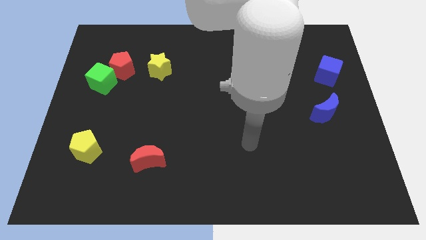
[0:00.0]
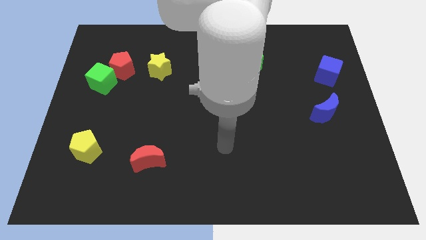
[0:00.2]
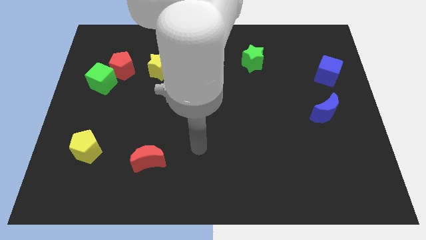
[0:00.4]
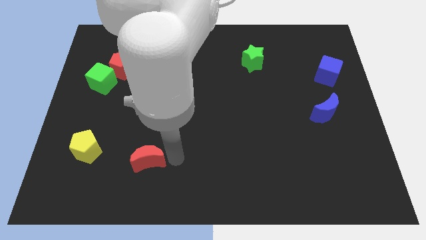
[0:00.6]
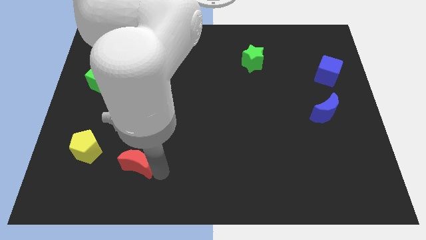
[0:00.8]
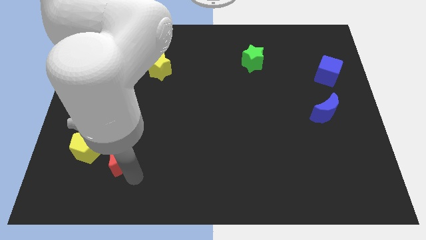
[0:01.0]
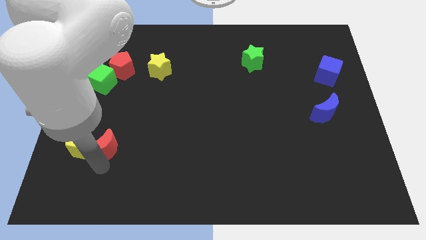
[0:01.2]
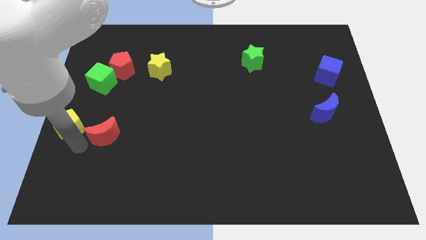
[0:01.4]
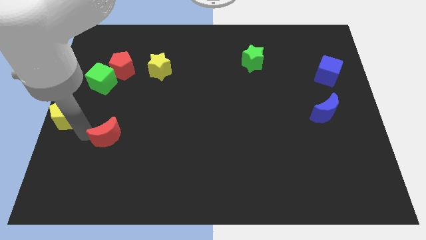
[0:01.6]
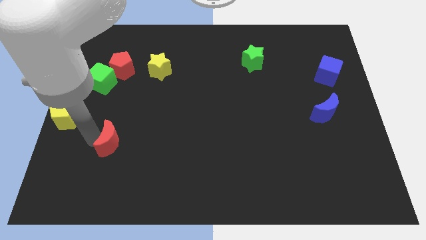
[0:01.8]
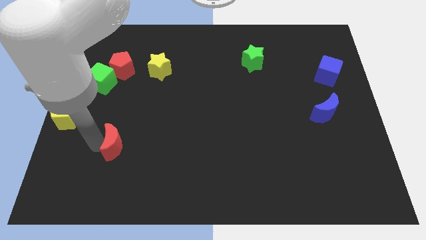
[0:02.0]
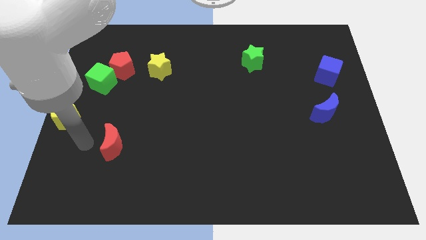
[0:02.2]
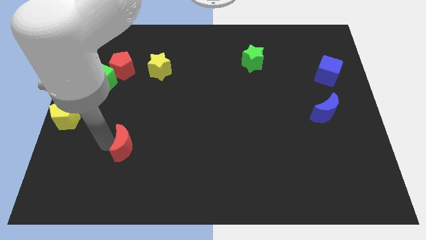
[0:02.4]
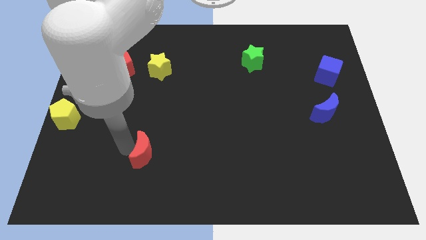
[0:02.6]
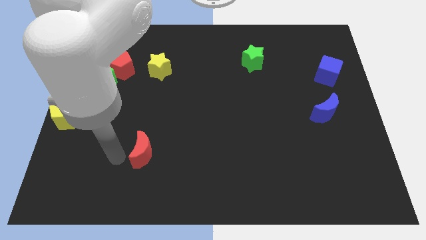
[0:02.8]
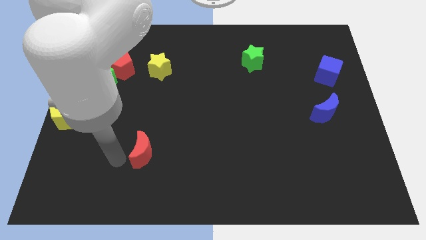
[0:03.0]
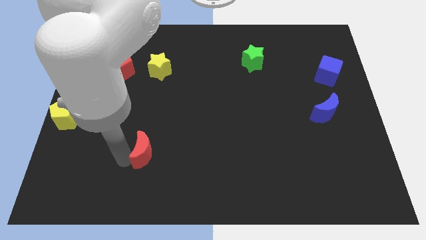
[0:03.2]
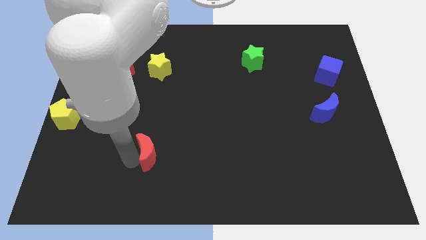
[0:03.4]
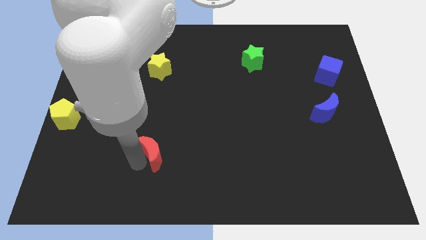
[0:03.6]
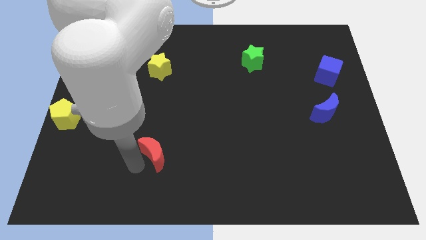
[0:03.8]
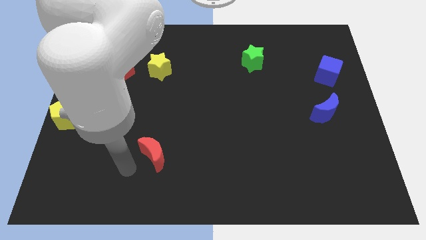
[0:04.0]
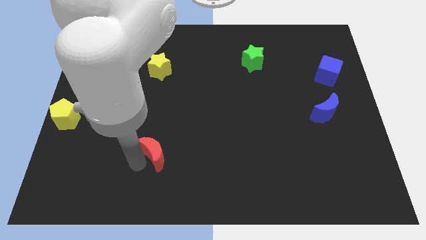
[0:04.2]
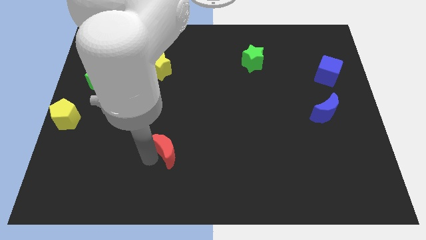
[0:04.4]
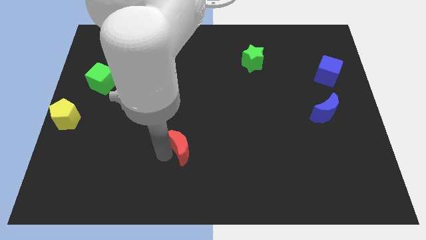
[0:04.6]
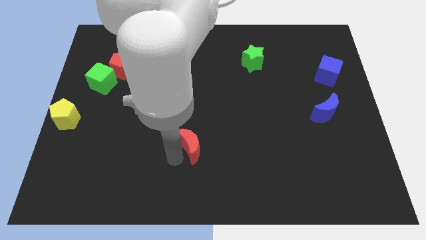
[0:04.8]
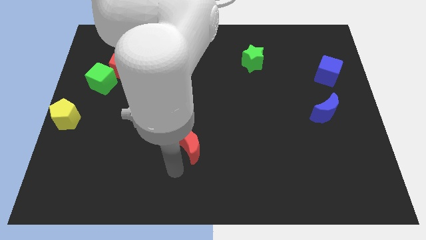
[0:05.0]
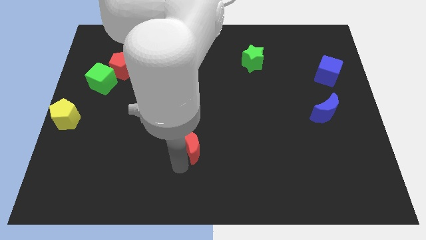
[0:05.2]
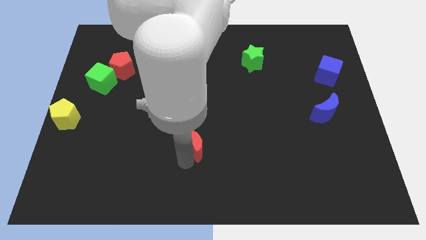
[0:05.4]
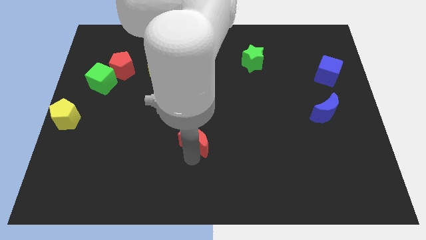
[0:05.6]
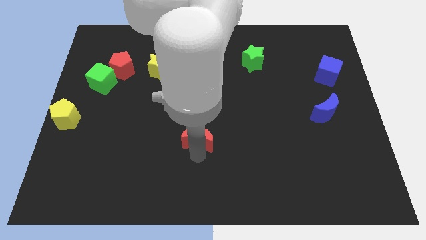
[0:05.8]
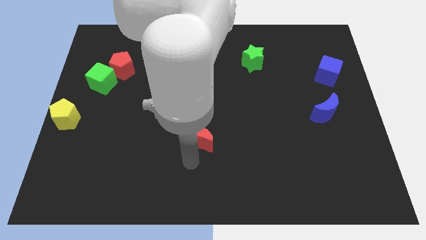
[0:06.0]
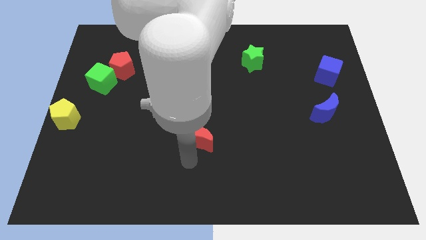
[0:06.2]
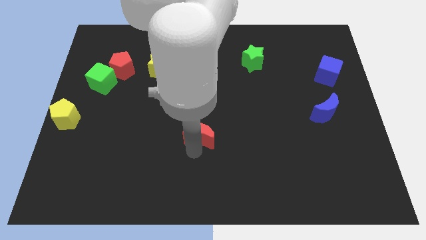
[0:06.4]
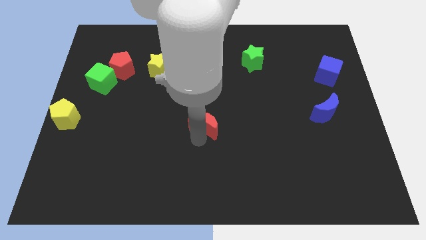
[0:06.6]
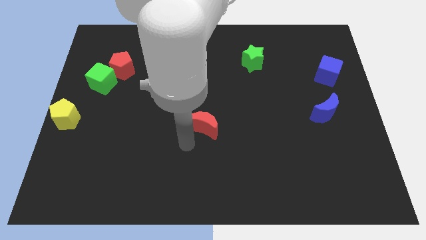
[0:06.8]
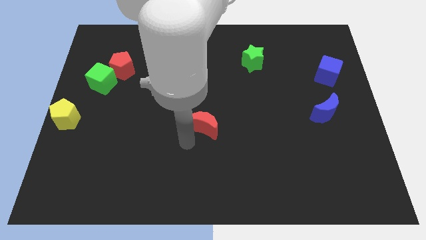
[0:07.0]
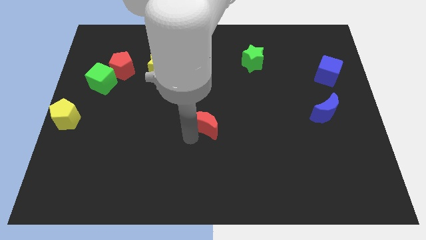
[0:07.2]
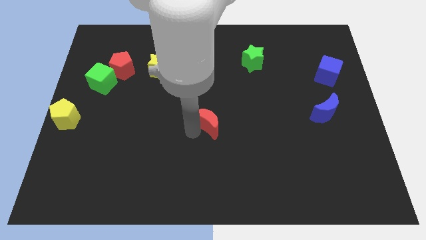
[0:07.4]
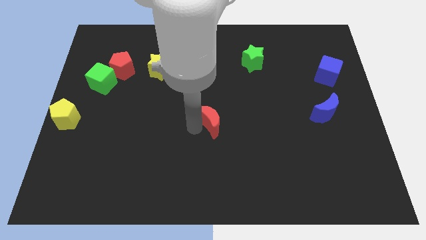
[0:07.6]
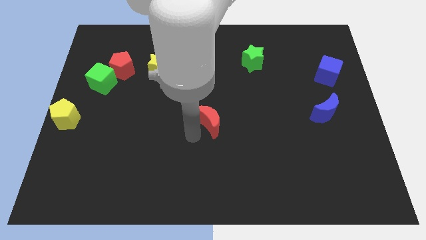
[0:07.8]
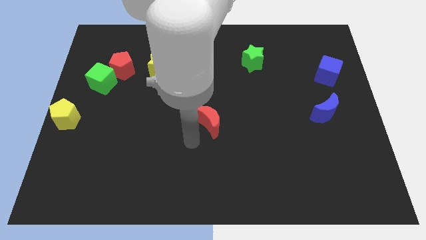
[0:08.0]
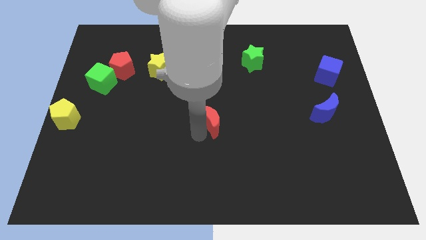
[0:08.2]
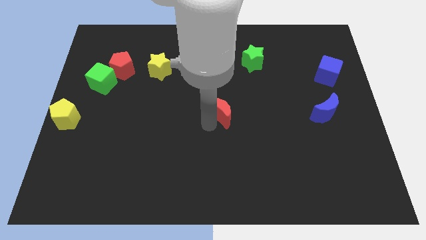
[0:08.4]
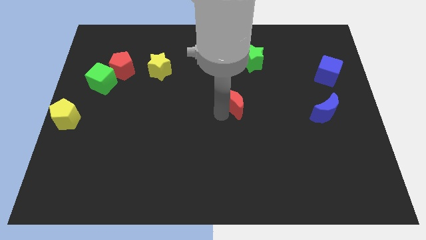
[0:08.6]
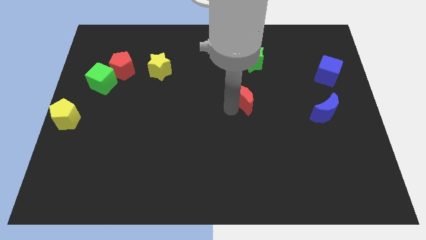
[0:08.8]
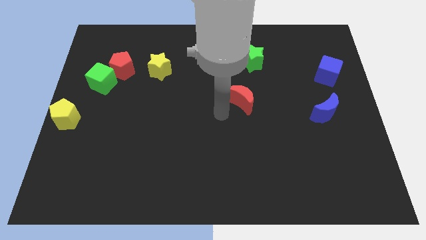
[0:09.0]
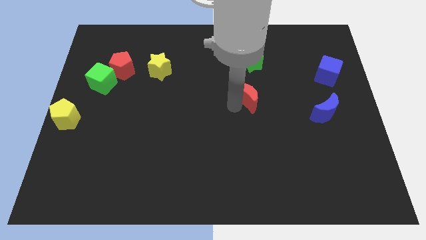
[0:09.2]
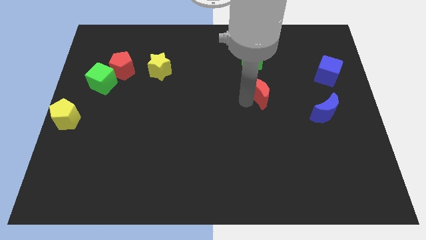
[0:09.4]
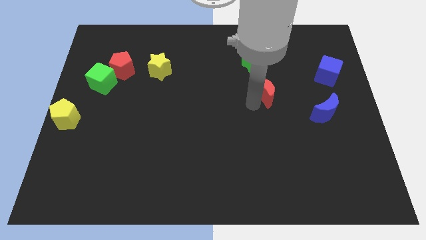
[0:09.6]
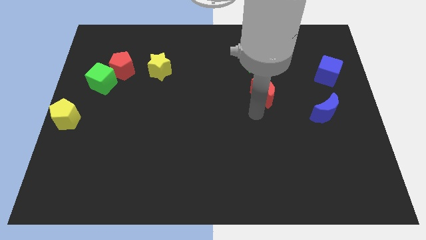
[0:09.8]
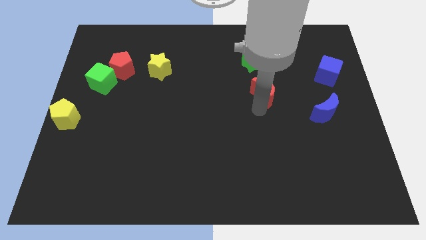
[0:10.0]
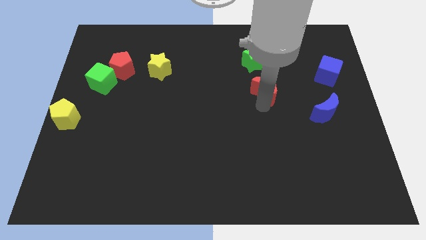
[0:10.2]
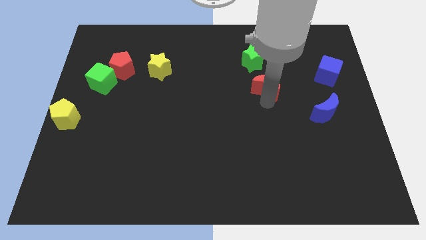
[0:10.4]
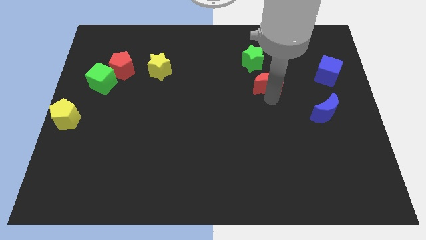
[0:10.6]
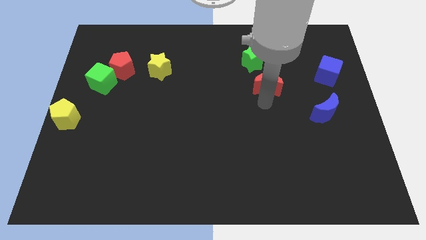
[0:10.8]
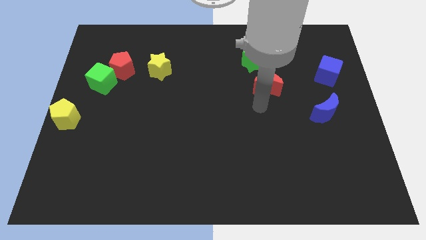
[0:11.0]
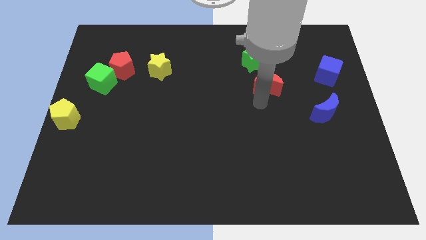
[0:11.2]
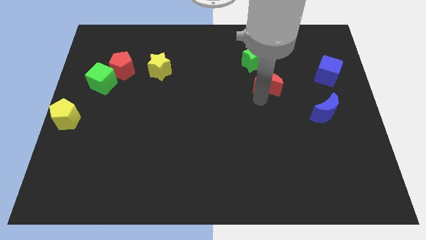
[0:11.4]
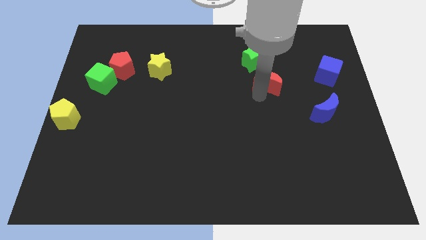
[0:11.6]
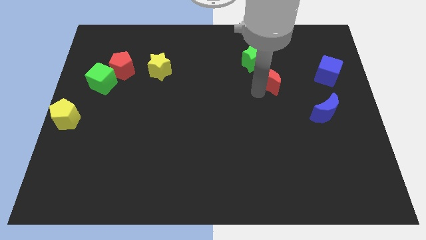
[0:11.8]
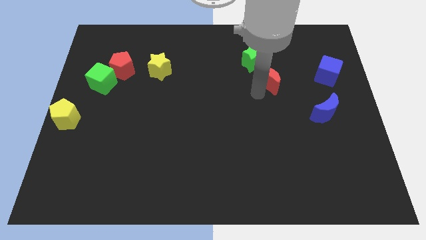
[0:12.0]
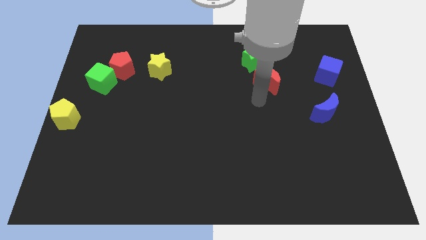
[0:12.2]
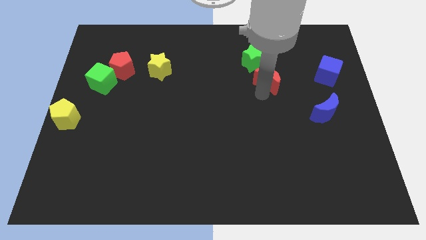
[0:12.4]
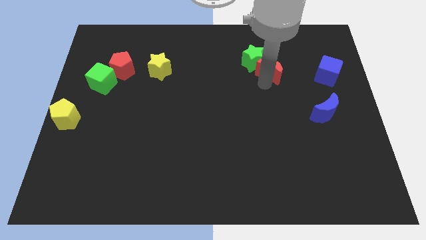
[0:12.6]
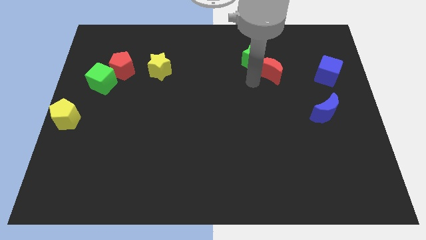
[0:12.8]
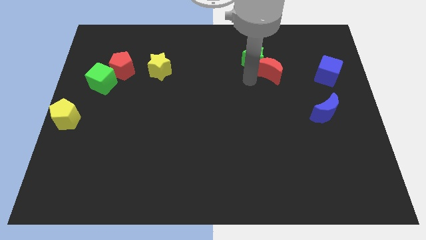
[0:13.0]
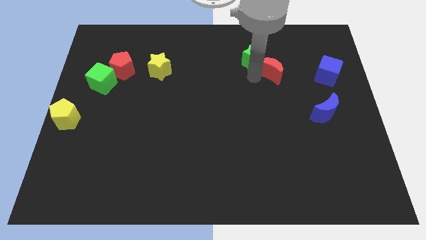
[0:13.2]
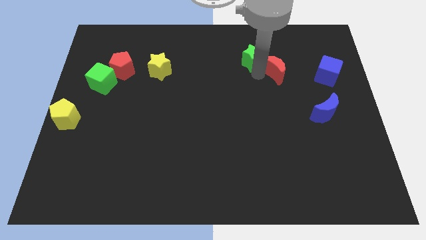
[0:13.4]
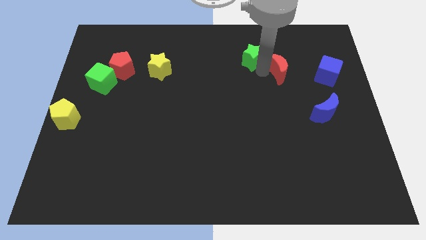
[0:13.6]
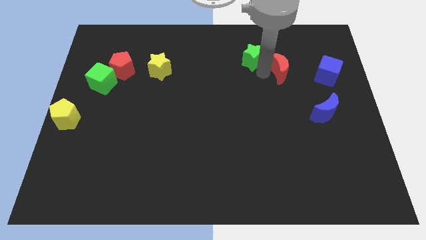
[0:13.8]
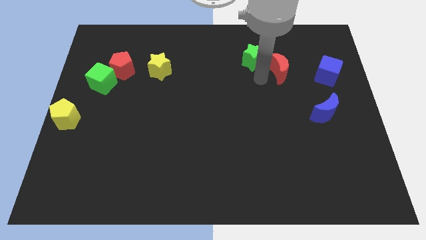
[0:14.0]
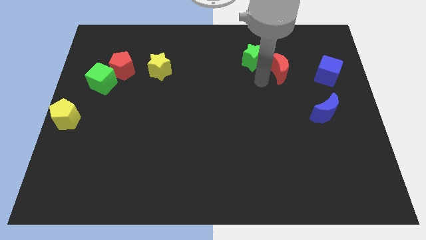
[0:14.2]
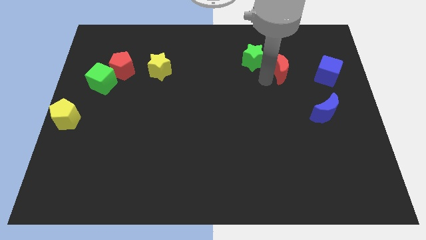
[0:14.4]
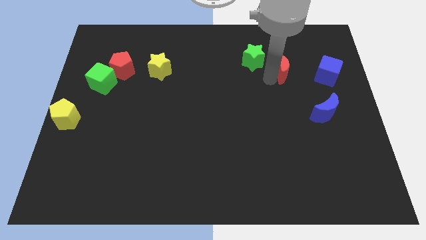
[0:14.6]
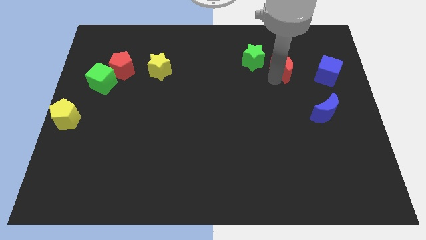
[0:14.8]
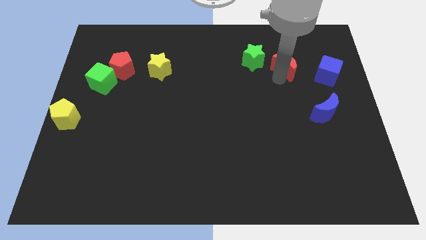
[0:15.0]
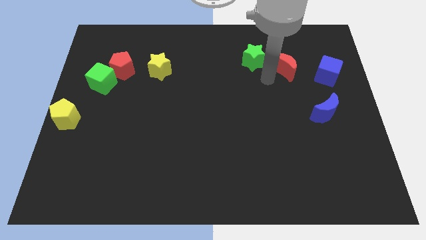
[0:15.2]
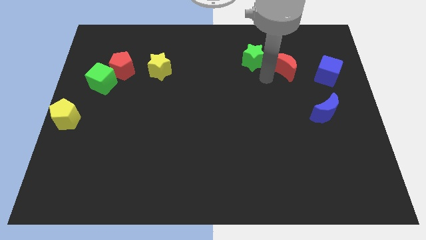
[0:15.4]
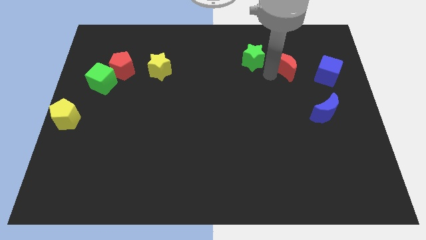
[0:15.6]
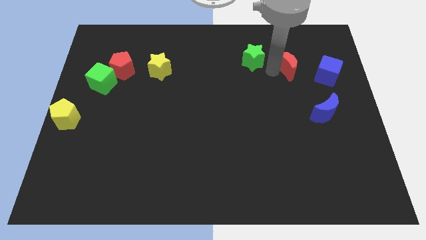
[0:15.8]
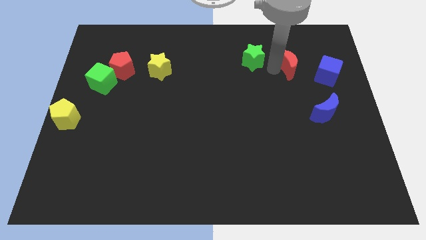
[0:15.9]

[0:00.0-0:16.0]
put the red moon to the top left of the blue cube

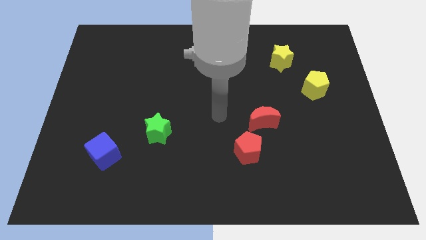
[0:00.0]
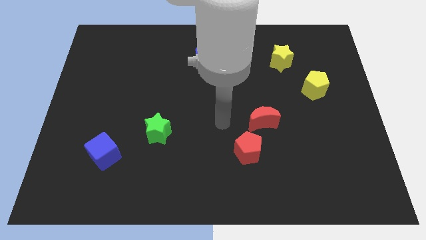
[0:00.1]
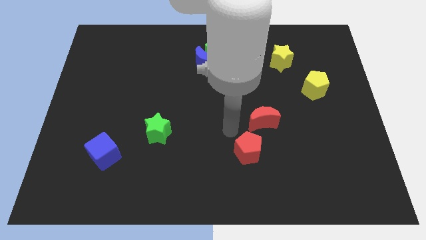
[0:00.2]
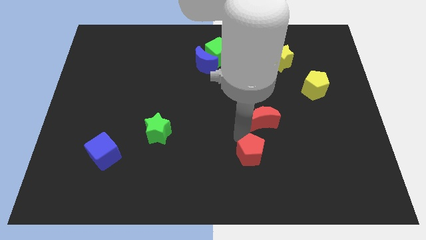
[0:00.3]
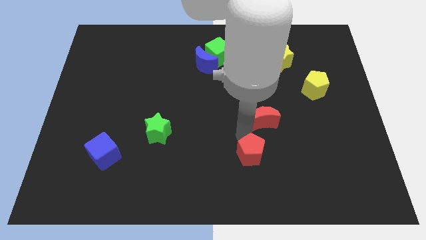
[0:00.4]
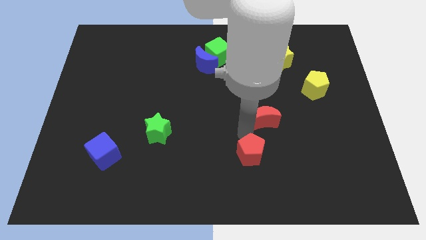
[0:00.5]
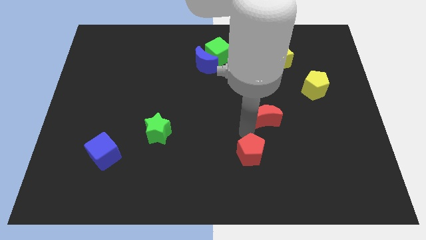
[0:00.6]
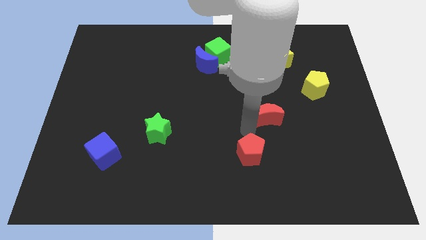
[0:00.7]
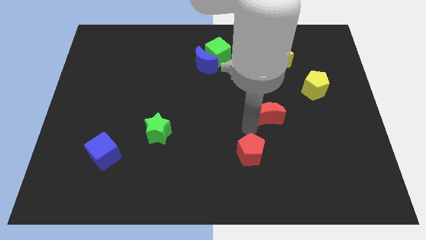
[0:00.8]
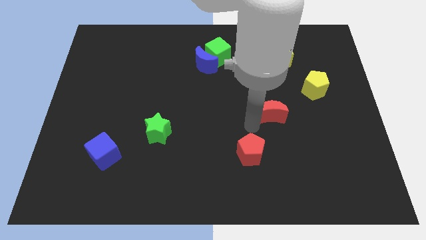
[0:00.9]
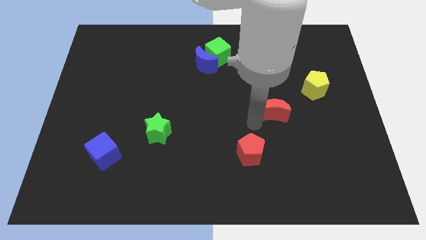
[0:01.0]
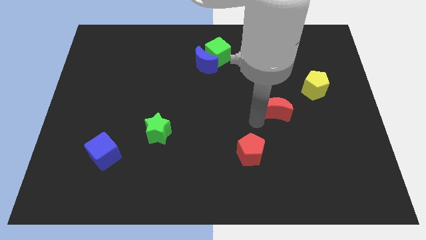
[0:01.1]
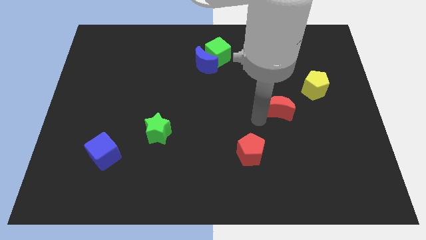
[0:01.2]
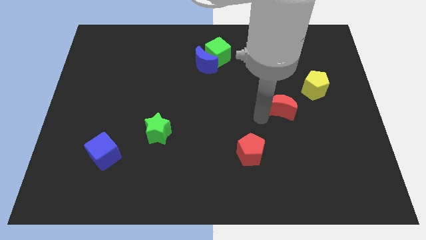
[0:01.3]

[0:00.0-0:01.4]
move the red moon below the yellow star
